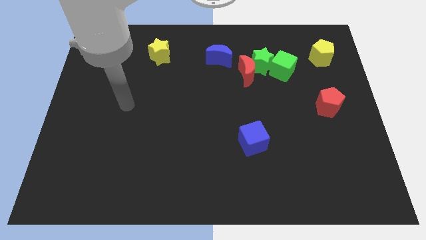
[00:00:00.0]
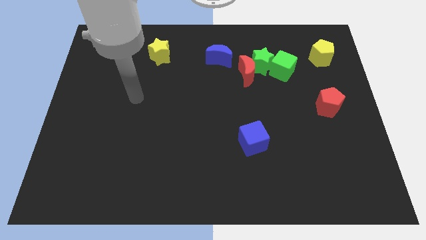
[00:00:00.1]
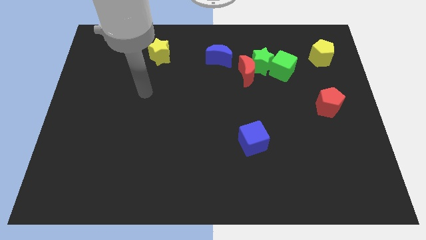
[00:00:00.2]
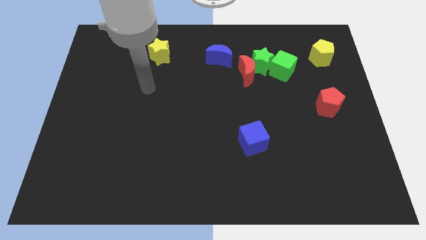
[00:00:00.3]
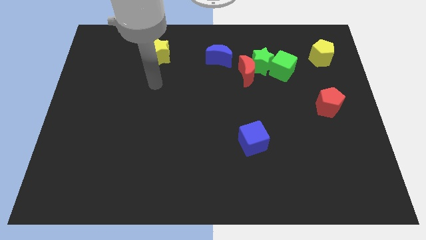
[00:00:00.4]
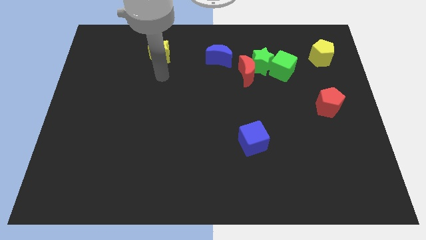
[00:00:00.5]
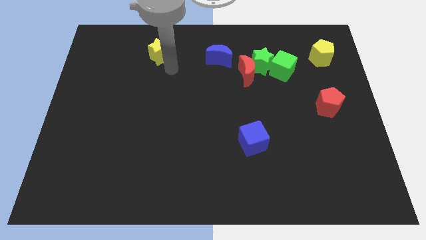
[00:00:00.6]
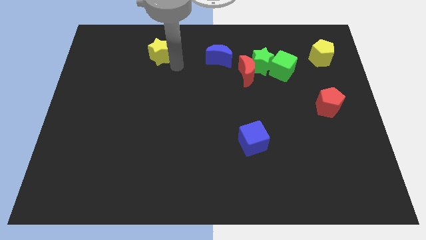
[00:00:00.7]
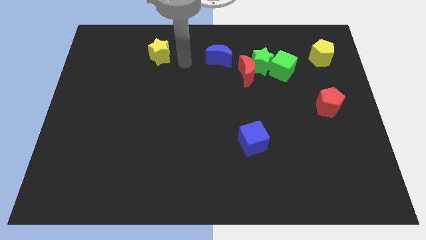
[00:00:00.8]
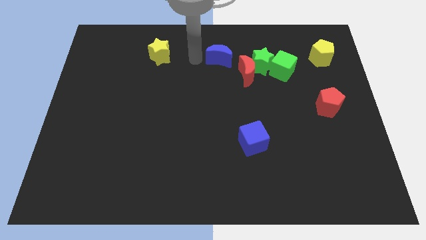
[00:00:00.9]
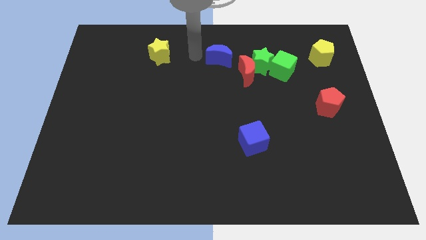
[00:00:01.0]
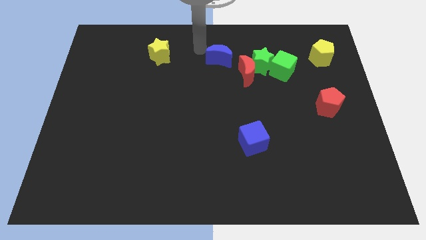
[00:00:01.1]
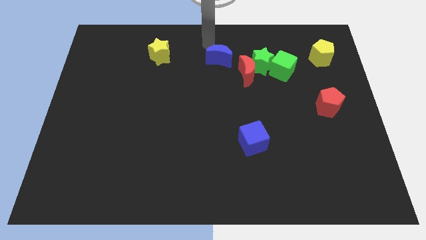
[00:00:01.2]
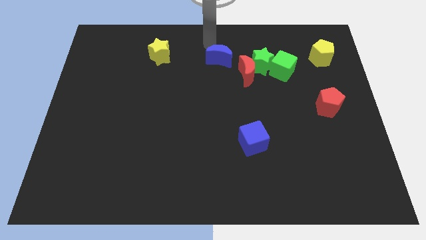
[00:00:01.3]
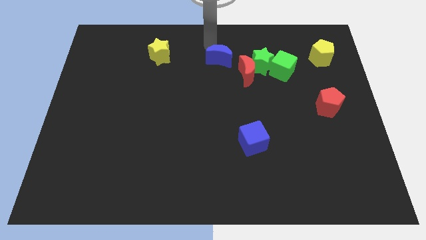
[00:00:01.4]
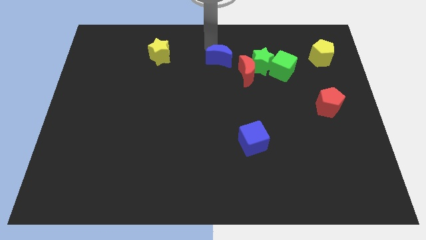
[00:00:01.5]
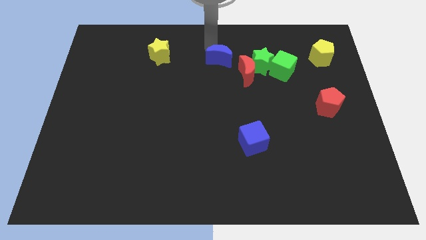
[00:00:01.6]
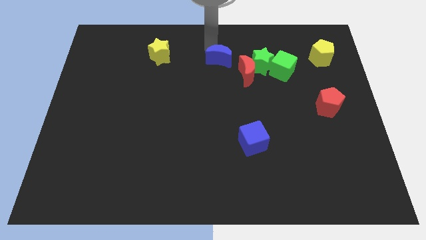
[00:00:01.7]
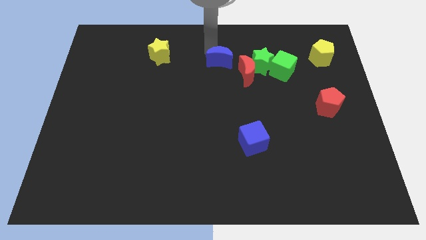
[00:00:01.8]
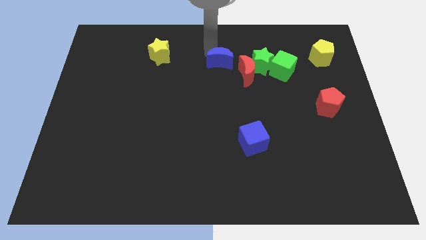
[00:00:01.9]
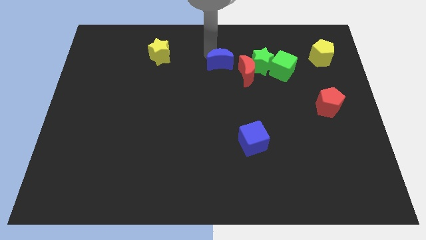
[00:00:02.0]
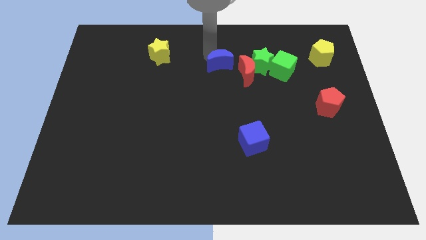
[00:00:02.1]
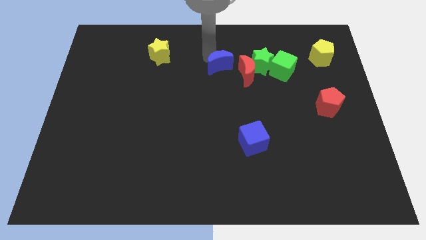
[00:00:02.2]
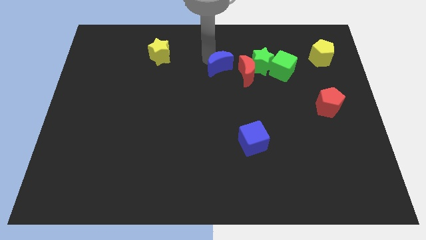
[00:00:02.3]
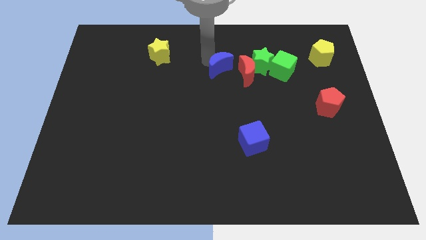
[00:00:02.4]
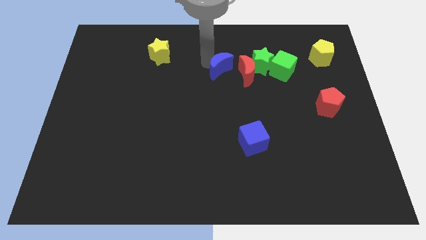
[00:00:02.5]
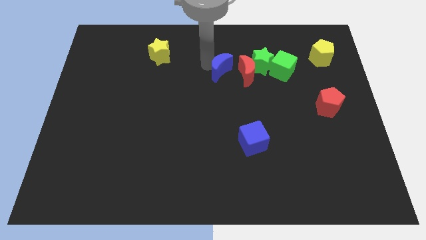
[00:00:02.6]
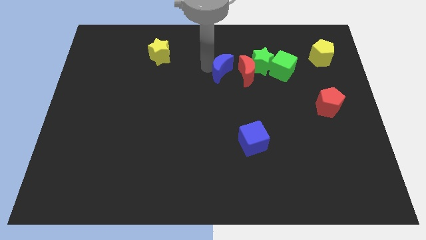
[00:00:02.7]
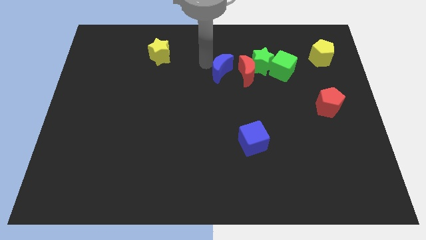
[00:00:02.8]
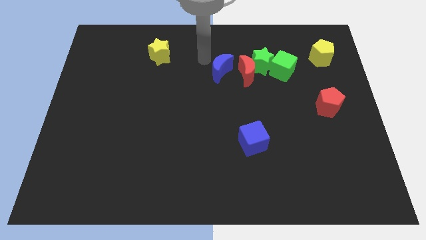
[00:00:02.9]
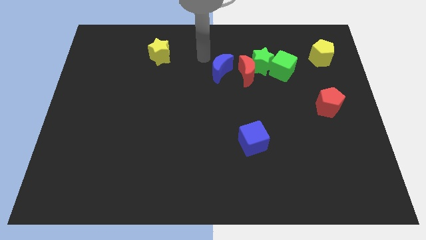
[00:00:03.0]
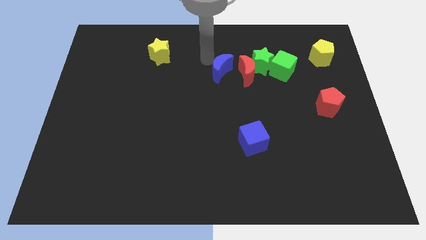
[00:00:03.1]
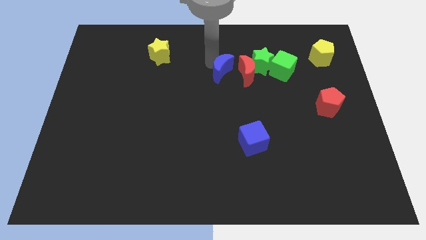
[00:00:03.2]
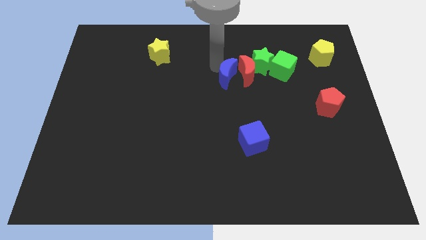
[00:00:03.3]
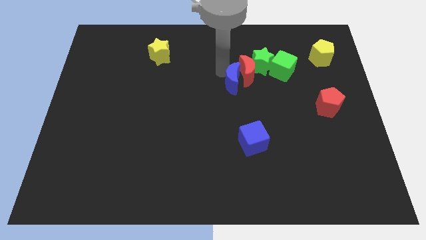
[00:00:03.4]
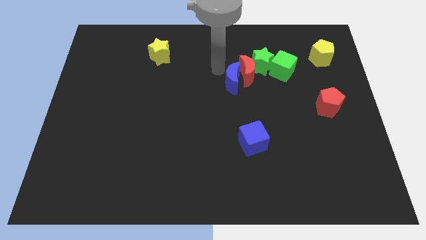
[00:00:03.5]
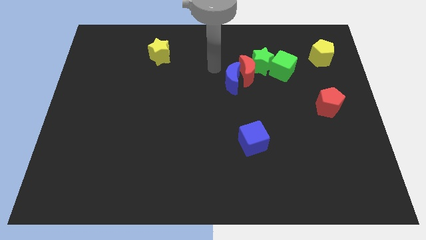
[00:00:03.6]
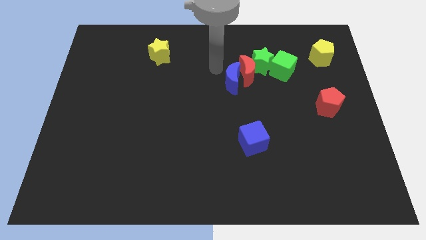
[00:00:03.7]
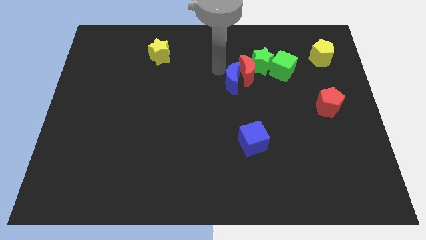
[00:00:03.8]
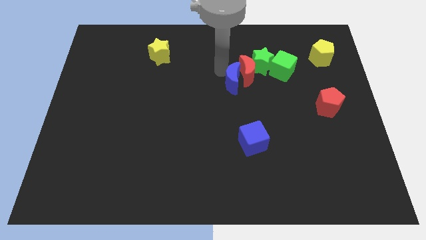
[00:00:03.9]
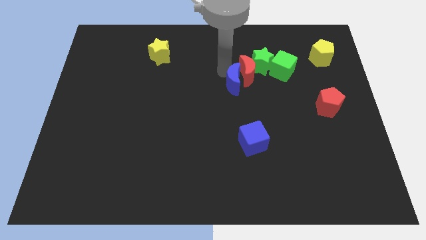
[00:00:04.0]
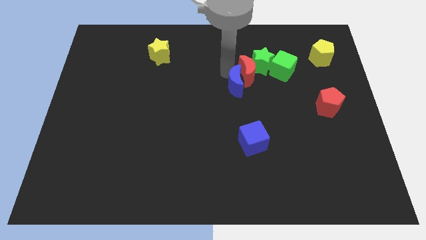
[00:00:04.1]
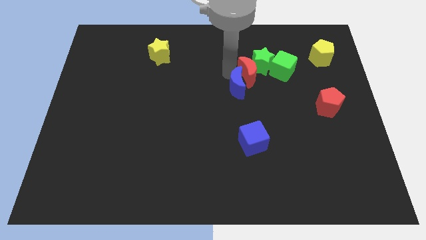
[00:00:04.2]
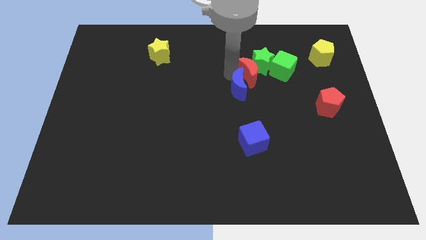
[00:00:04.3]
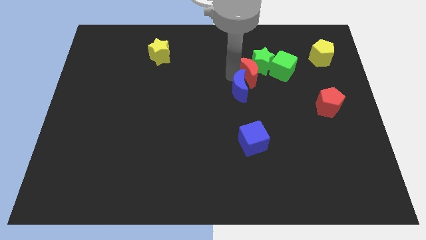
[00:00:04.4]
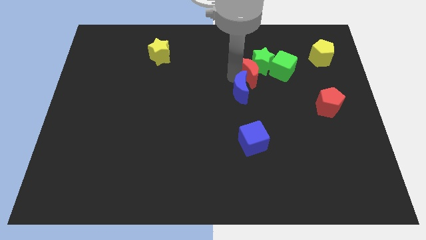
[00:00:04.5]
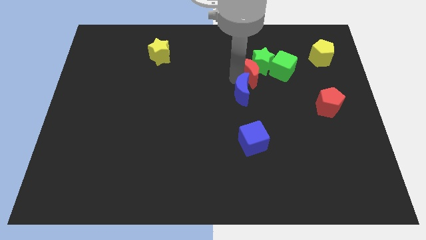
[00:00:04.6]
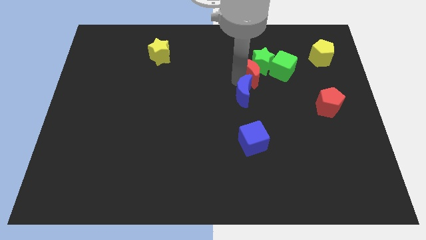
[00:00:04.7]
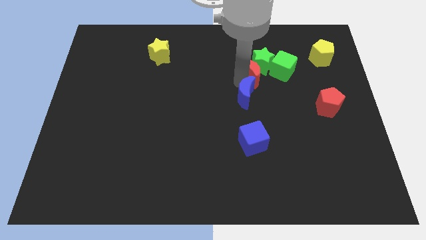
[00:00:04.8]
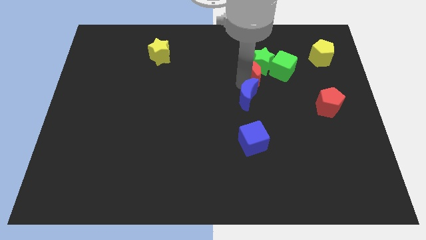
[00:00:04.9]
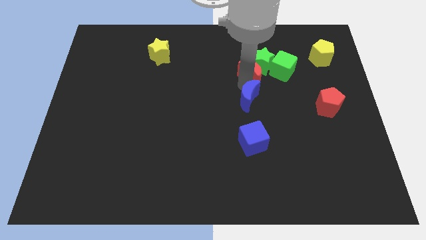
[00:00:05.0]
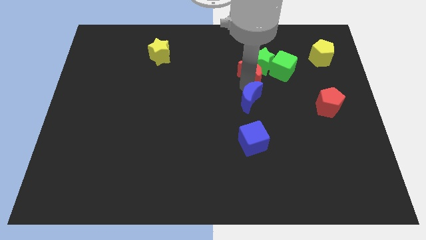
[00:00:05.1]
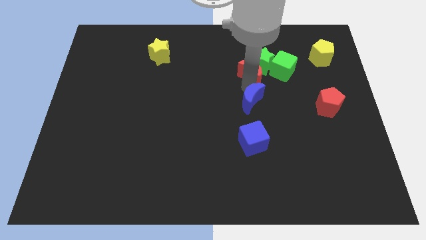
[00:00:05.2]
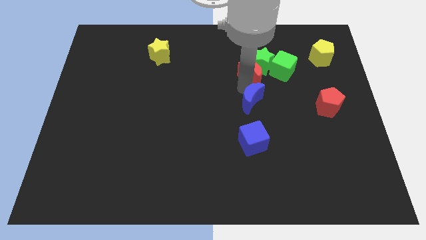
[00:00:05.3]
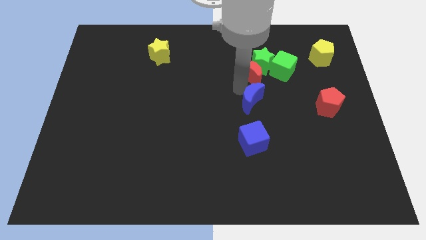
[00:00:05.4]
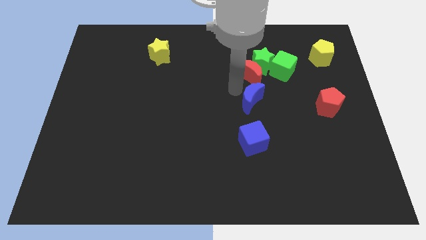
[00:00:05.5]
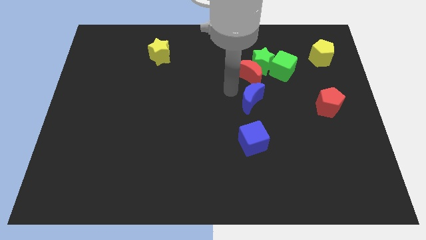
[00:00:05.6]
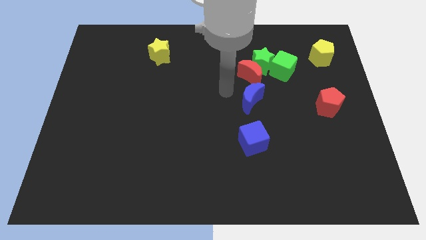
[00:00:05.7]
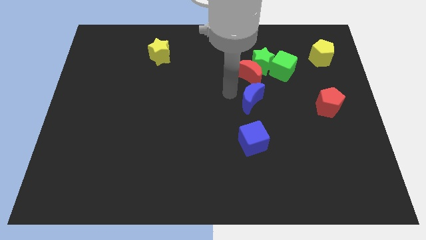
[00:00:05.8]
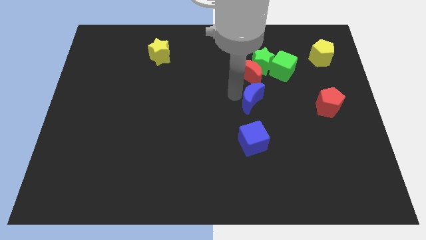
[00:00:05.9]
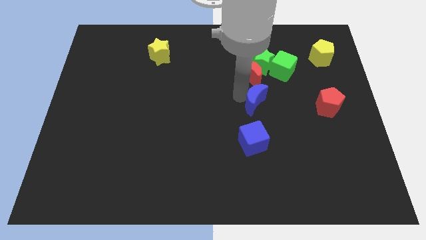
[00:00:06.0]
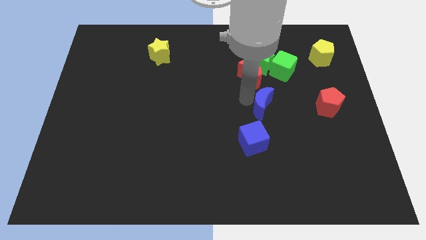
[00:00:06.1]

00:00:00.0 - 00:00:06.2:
push the blue moon just left of the red pentagon

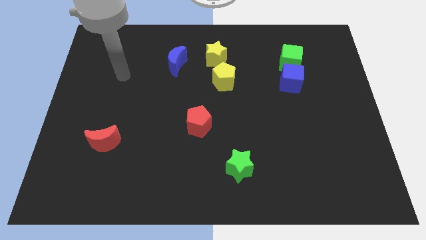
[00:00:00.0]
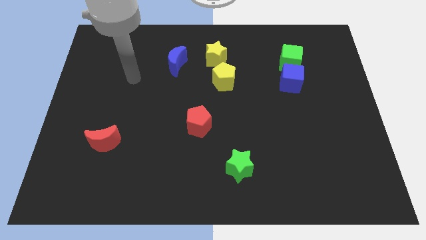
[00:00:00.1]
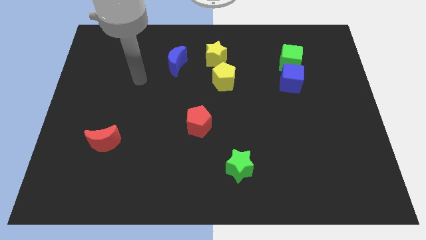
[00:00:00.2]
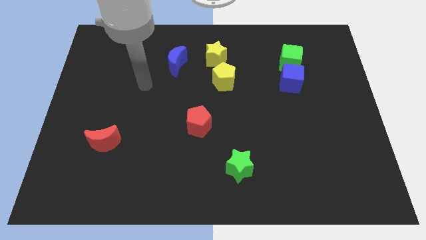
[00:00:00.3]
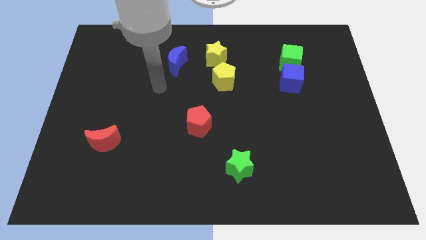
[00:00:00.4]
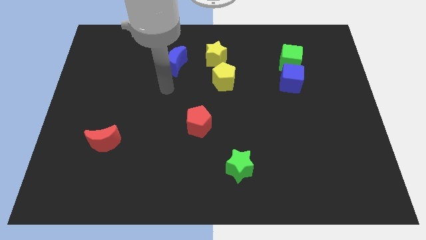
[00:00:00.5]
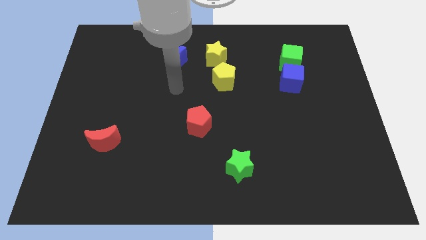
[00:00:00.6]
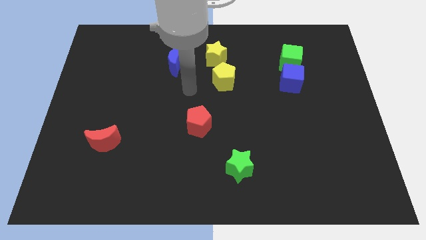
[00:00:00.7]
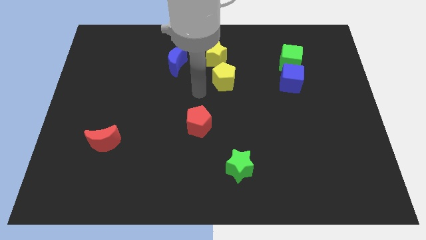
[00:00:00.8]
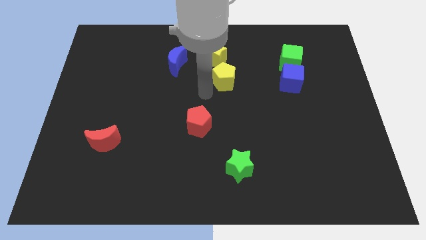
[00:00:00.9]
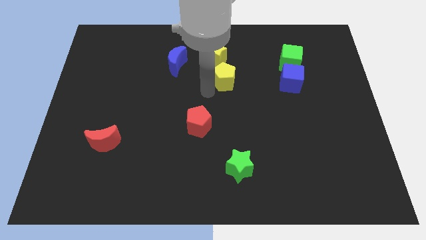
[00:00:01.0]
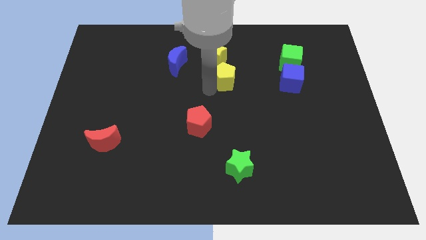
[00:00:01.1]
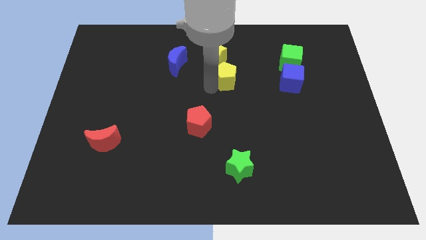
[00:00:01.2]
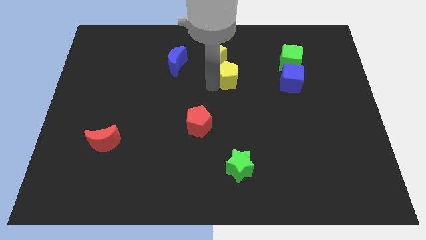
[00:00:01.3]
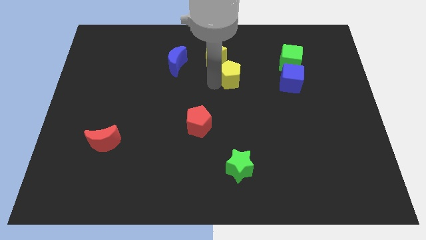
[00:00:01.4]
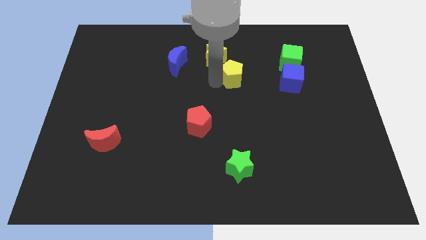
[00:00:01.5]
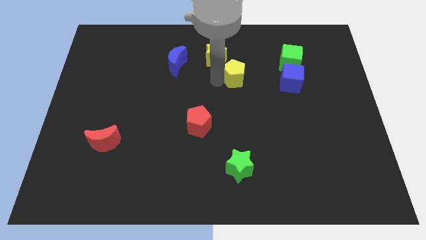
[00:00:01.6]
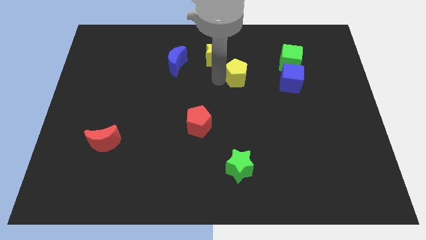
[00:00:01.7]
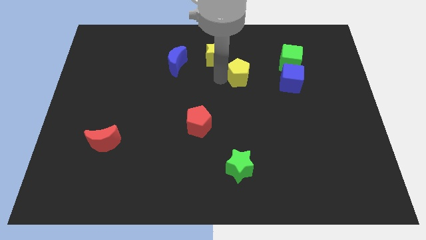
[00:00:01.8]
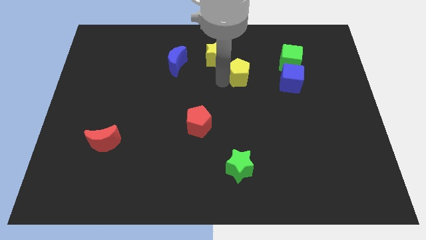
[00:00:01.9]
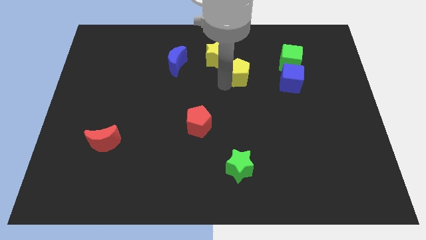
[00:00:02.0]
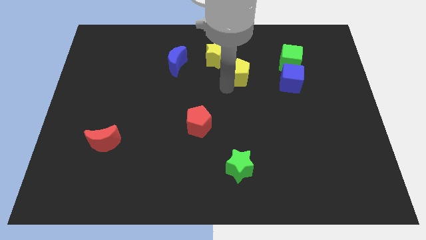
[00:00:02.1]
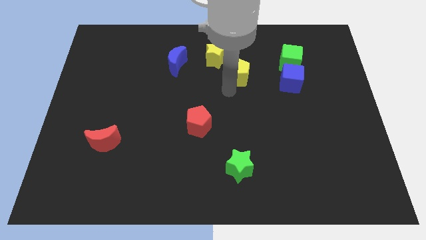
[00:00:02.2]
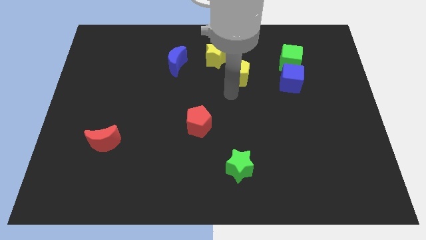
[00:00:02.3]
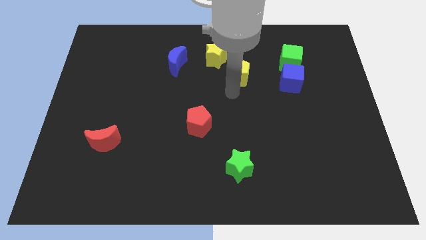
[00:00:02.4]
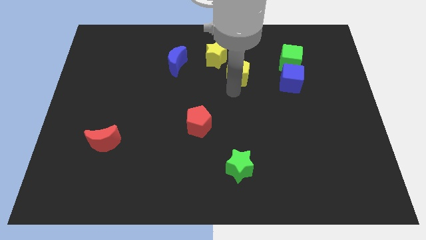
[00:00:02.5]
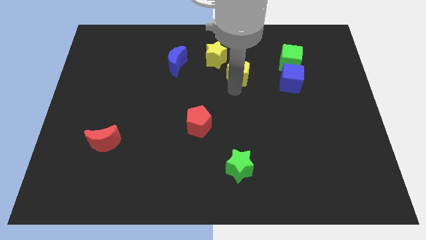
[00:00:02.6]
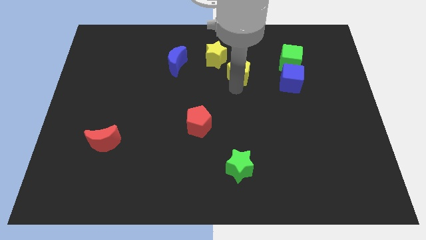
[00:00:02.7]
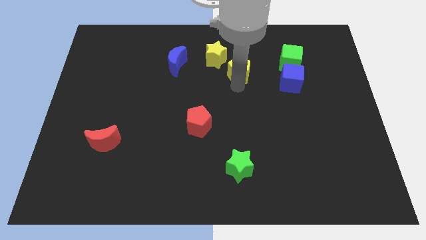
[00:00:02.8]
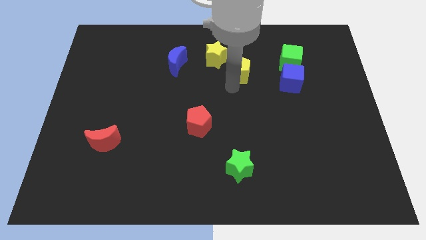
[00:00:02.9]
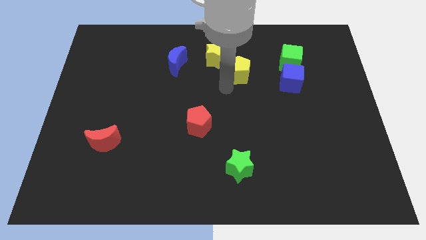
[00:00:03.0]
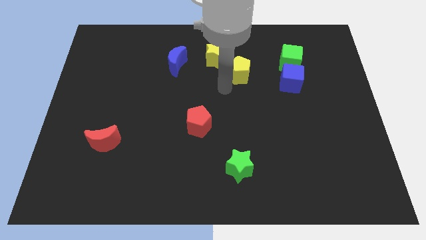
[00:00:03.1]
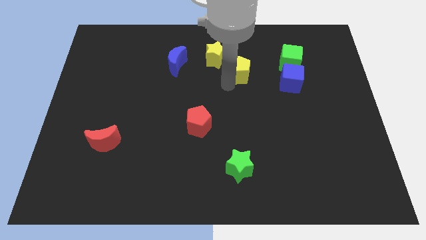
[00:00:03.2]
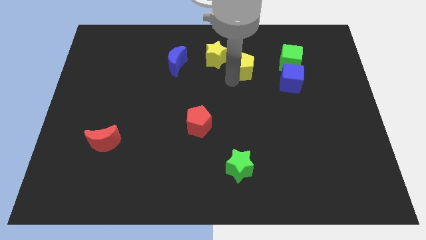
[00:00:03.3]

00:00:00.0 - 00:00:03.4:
put the yellow pentagon just right of the yellow star
